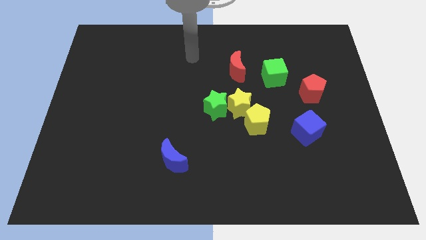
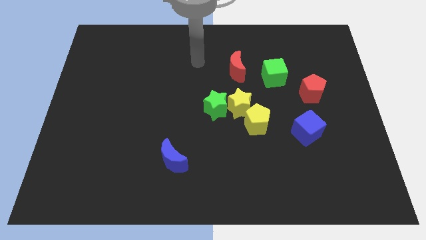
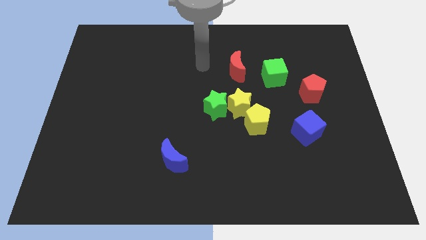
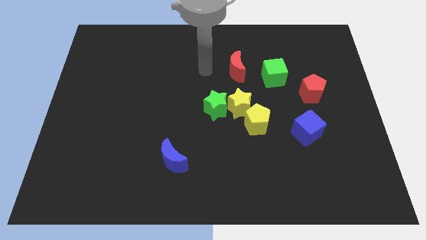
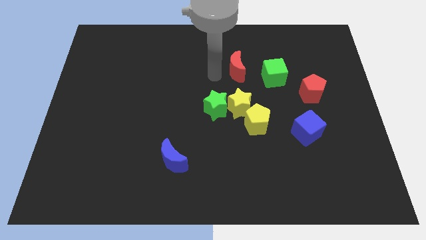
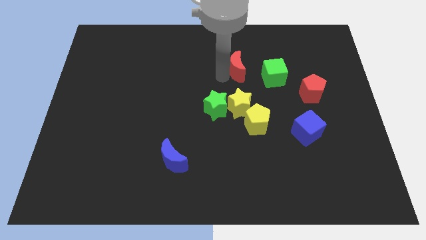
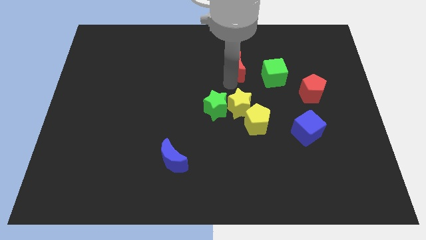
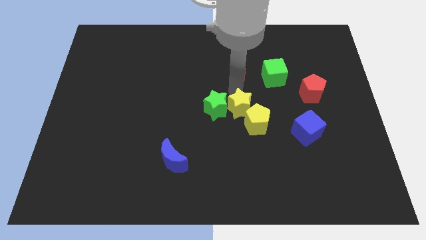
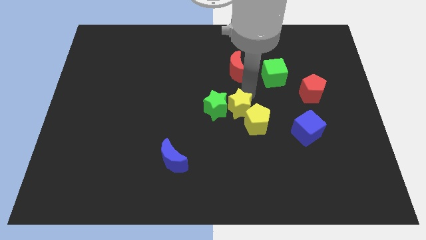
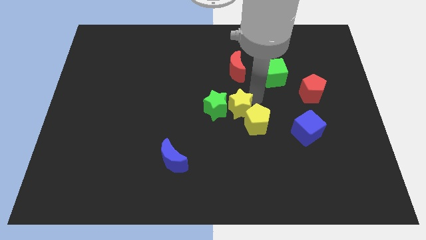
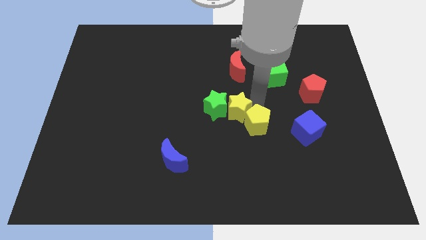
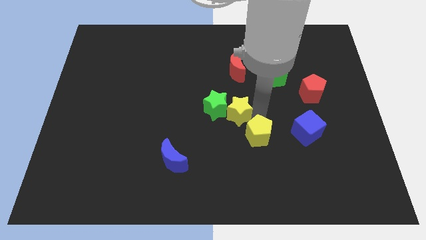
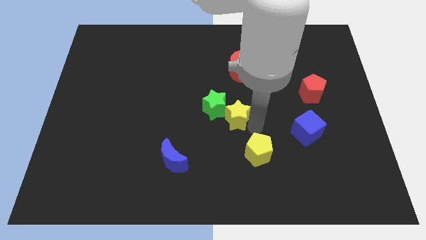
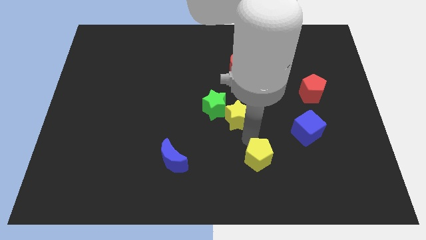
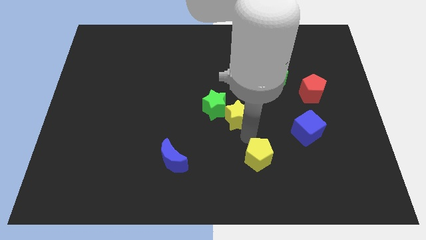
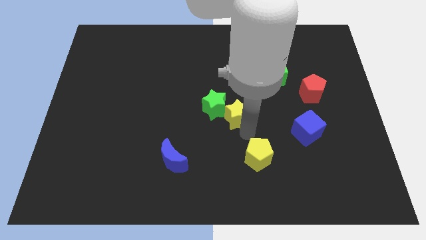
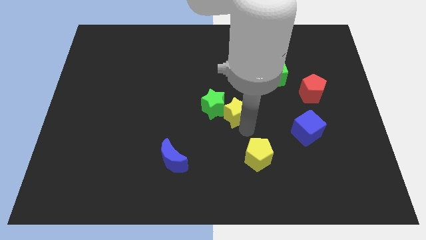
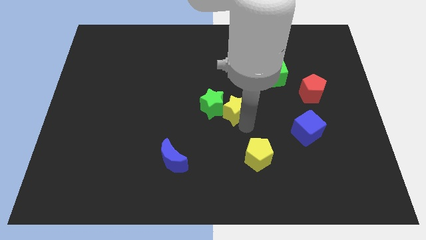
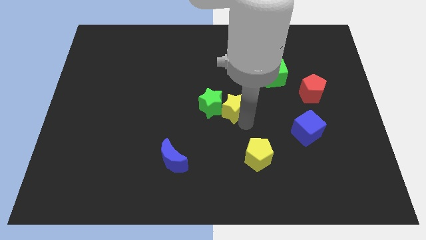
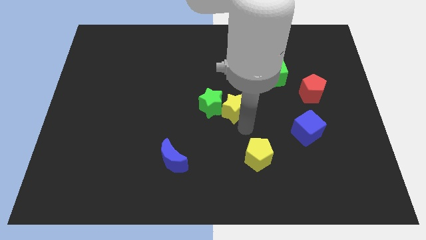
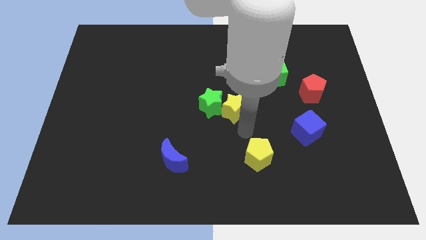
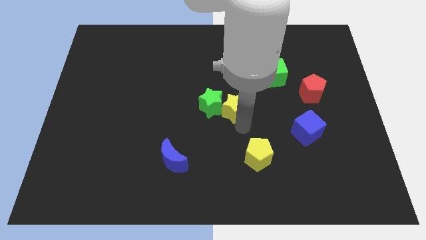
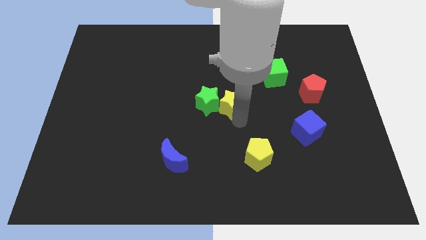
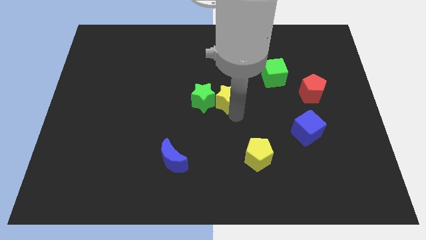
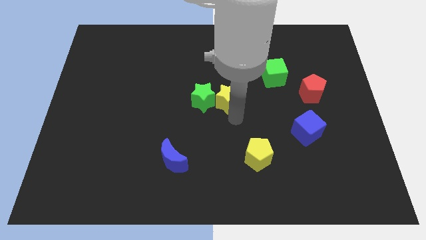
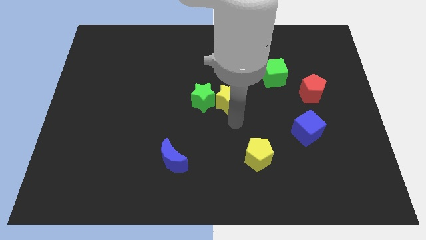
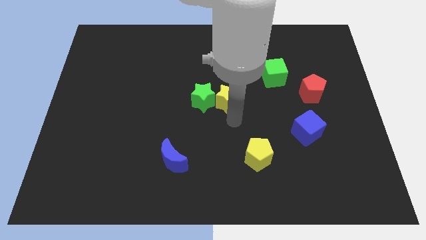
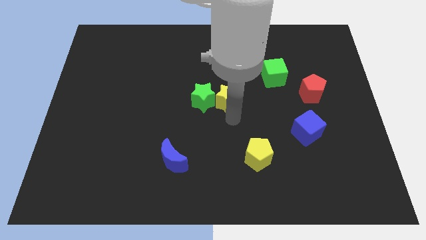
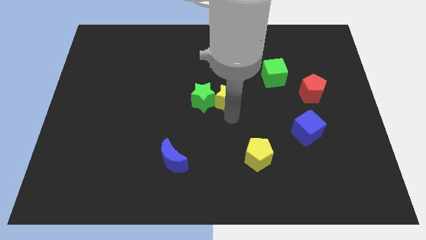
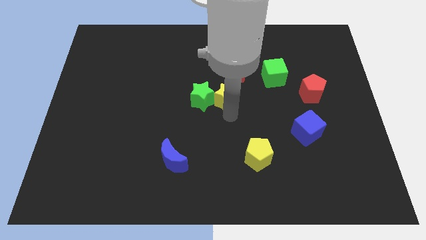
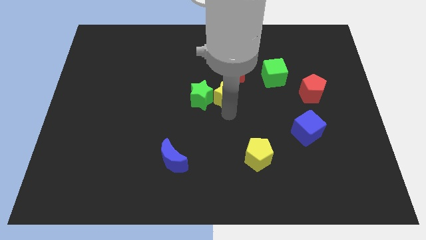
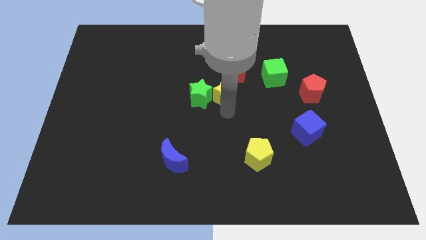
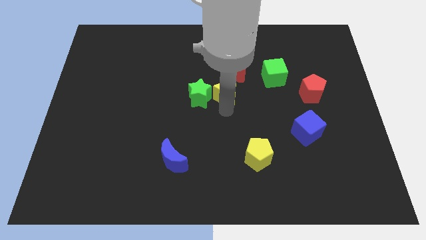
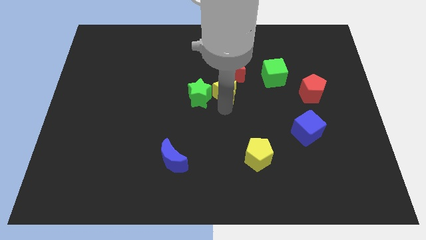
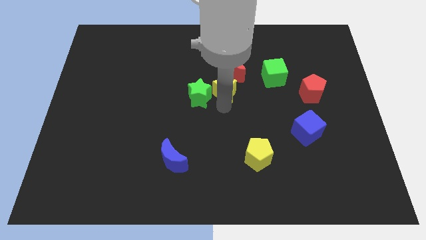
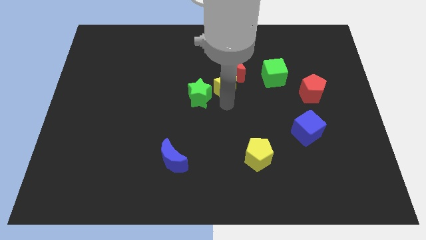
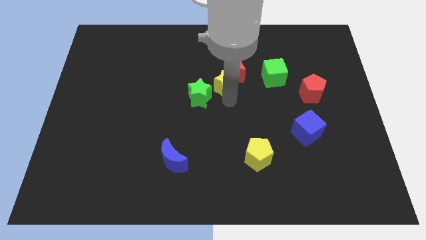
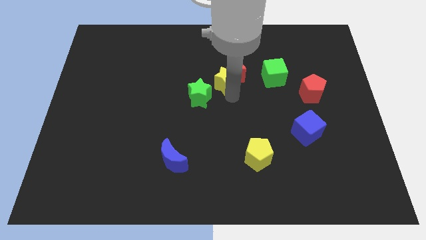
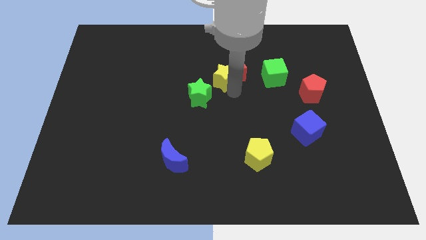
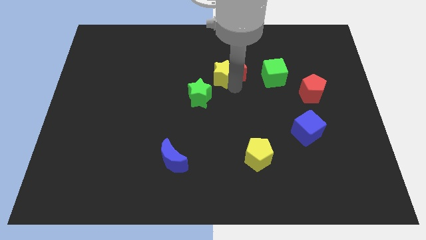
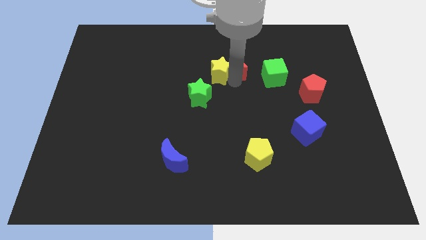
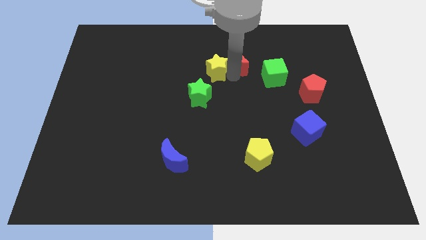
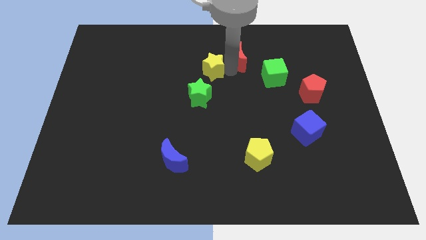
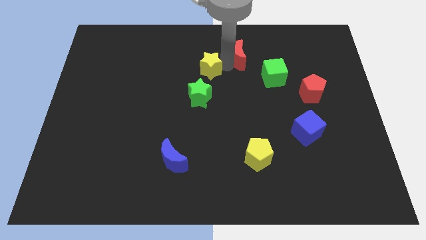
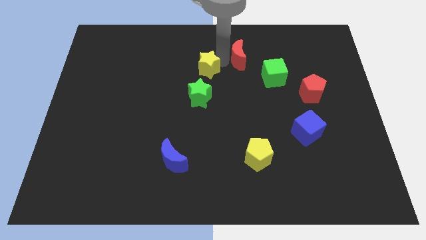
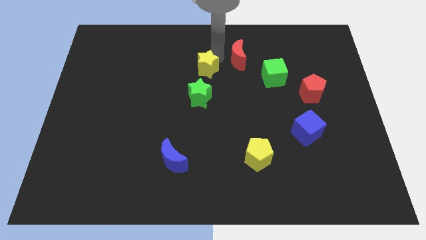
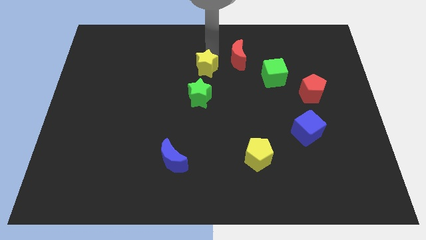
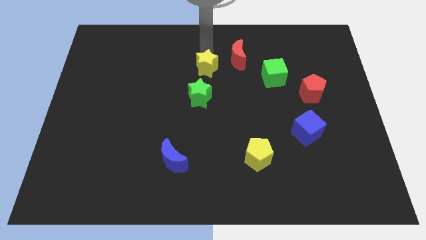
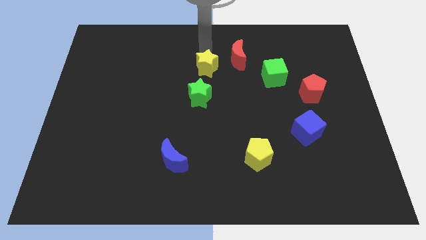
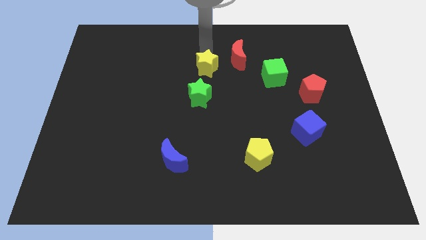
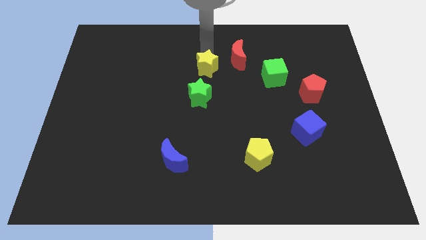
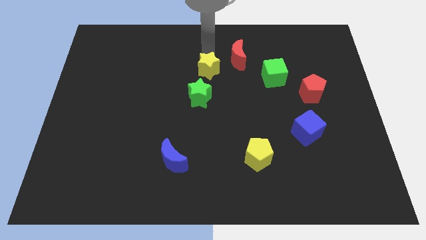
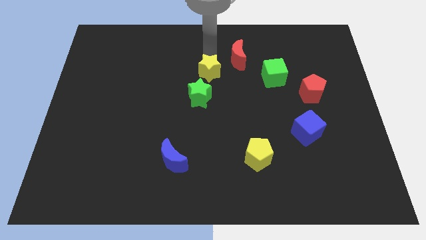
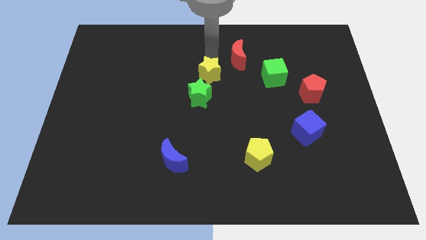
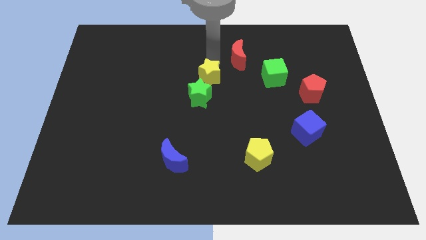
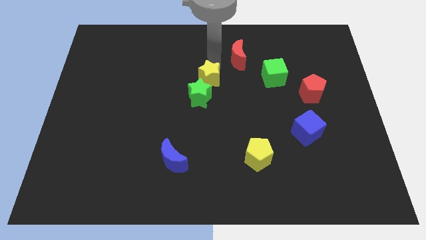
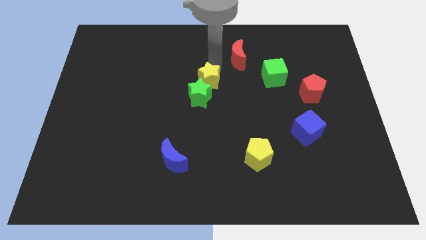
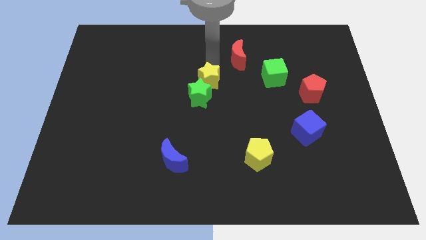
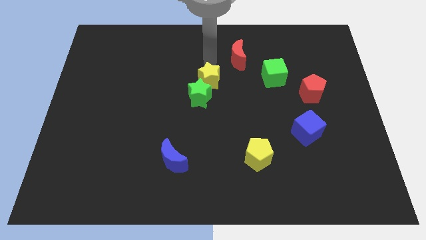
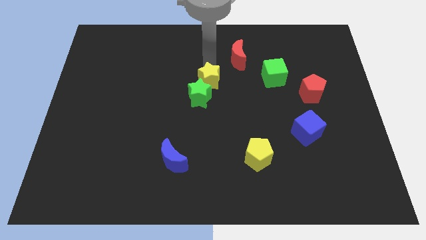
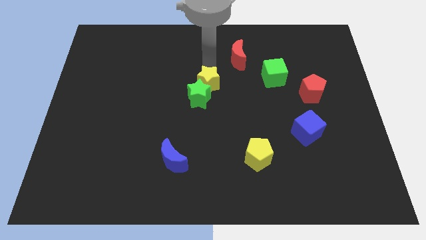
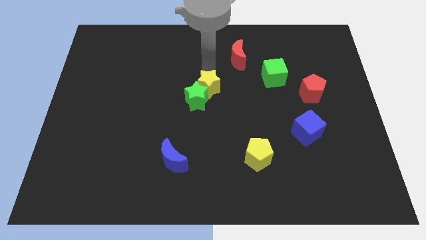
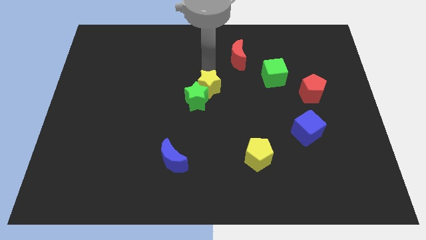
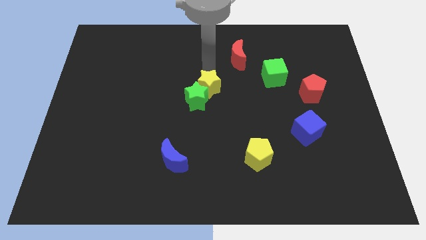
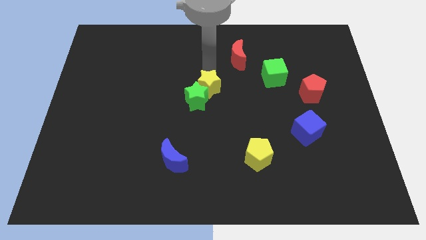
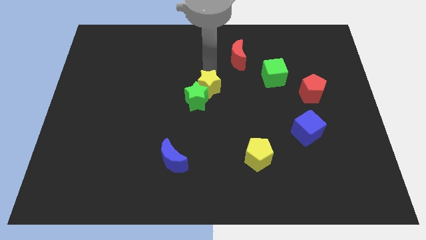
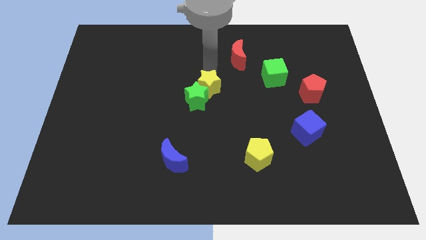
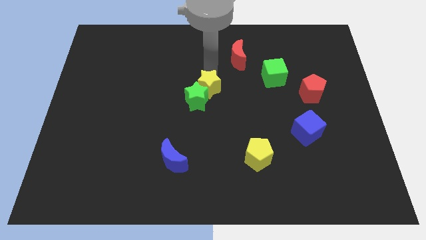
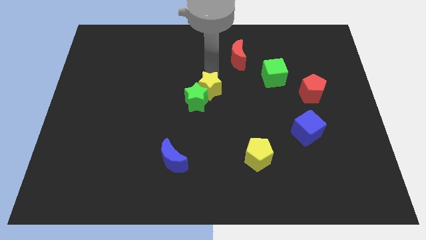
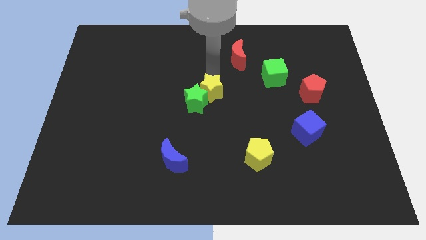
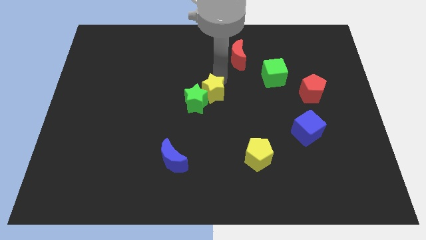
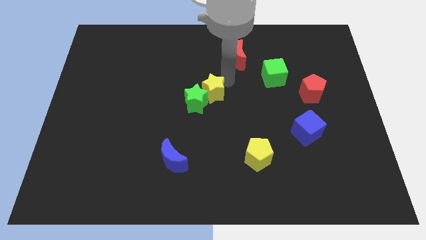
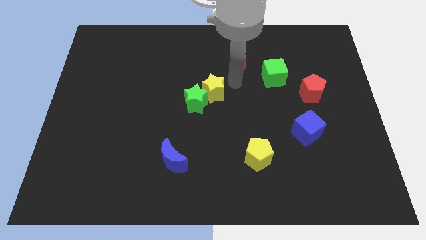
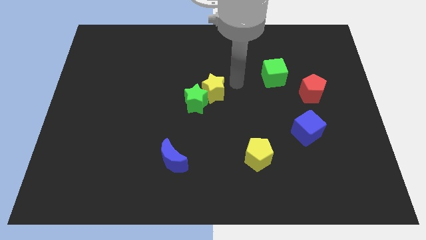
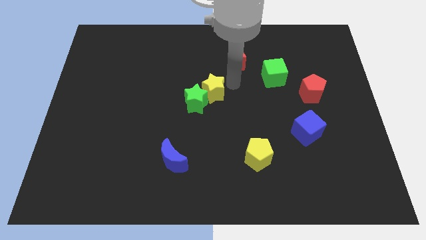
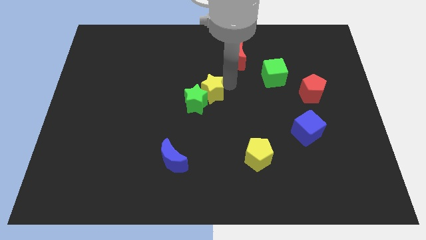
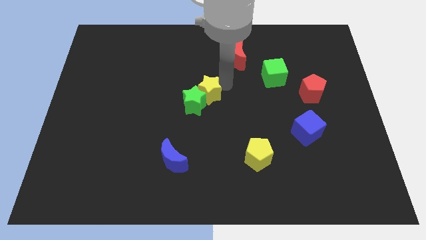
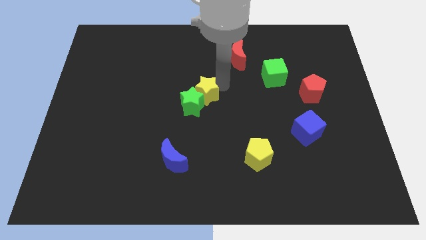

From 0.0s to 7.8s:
slightly slide the yellow star left
